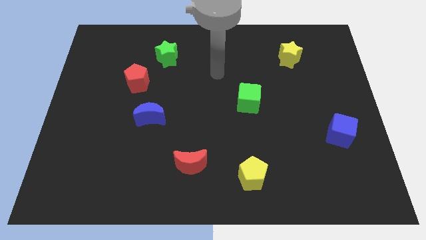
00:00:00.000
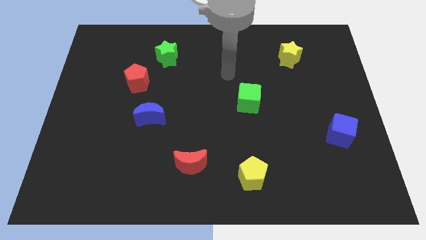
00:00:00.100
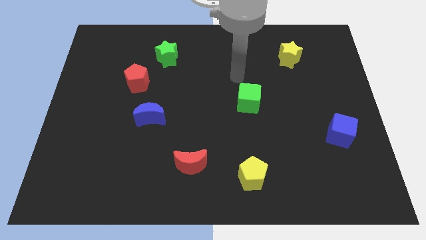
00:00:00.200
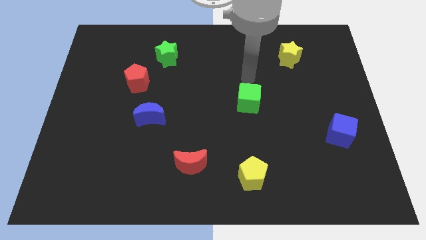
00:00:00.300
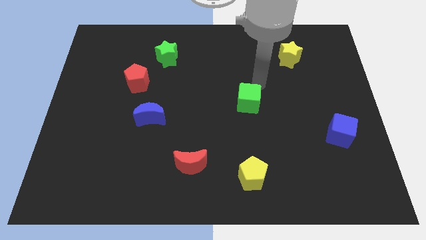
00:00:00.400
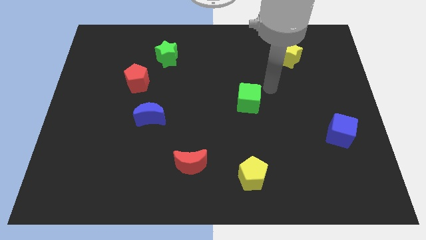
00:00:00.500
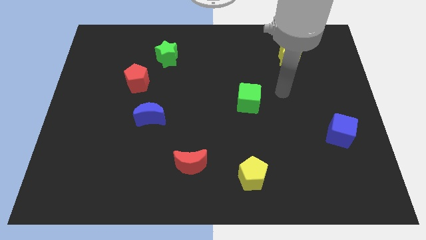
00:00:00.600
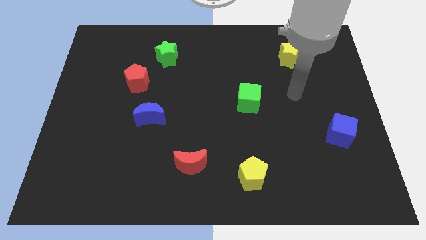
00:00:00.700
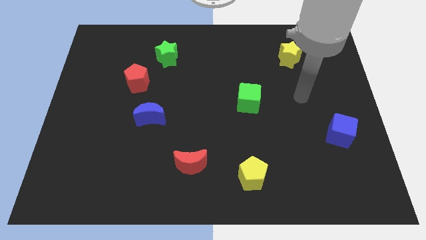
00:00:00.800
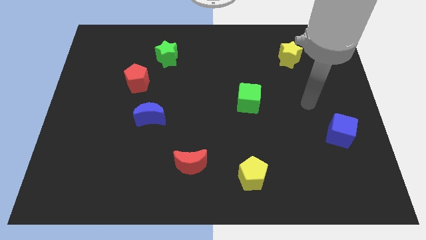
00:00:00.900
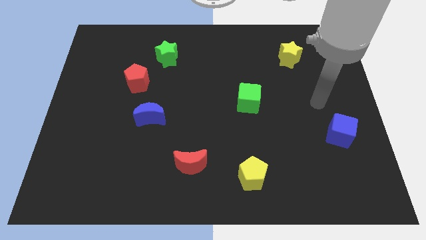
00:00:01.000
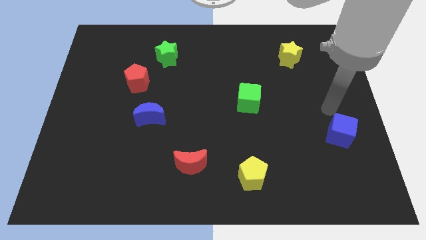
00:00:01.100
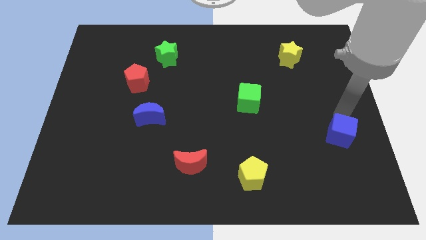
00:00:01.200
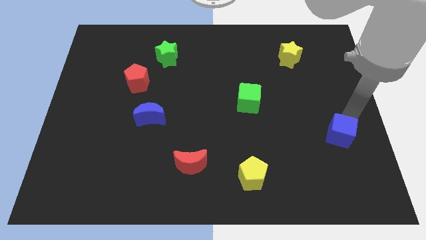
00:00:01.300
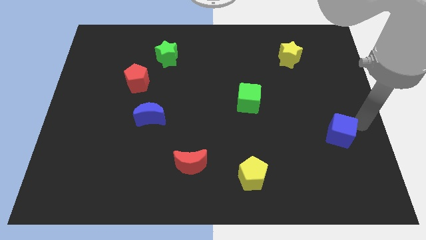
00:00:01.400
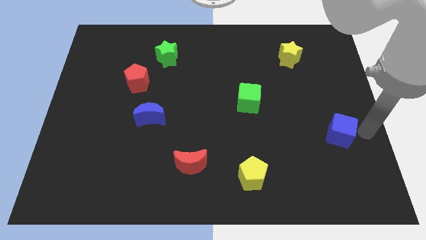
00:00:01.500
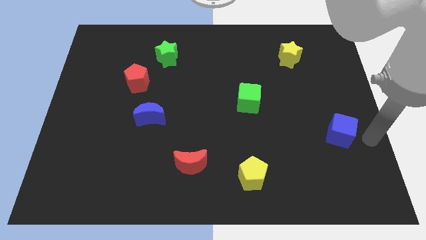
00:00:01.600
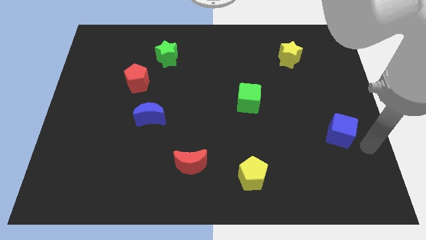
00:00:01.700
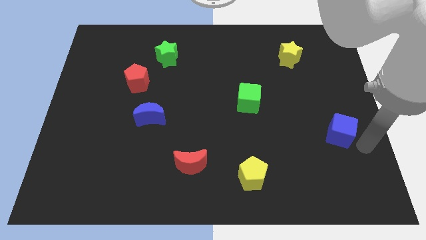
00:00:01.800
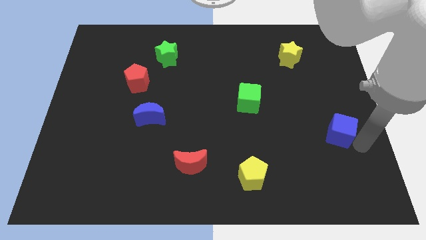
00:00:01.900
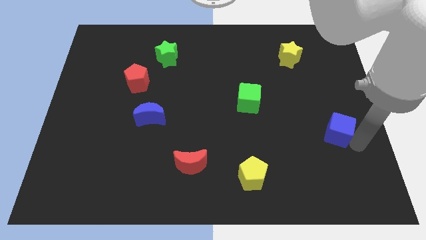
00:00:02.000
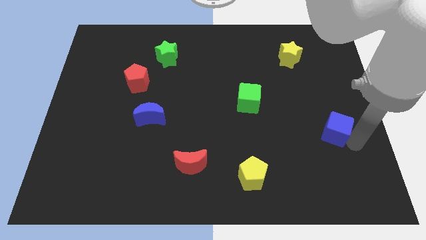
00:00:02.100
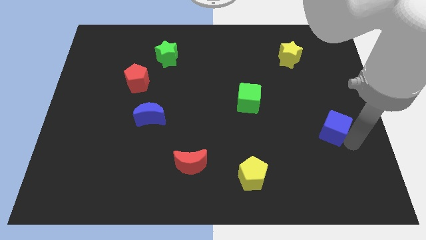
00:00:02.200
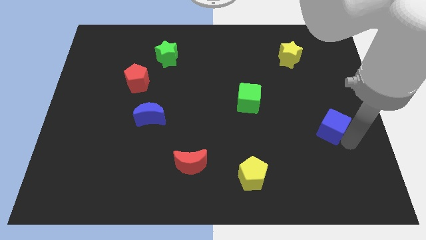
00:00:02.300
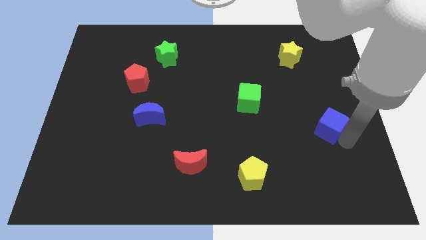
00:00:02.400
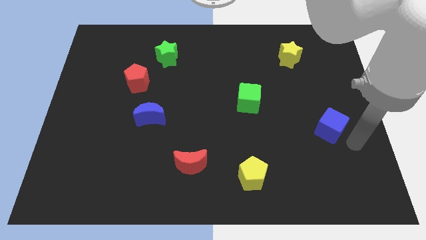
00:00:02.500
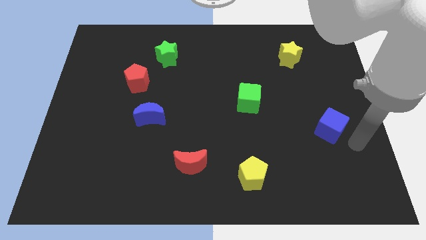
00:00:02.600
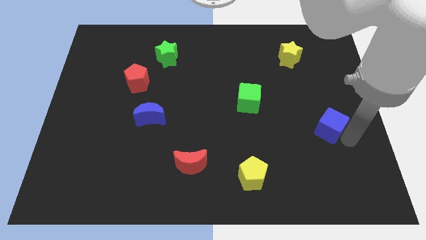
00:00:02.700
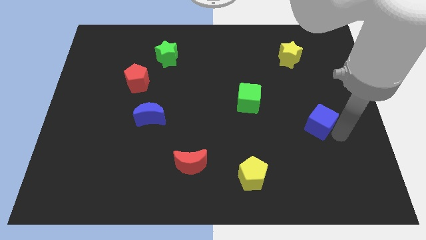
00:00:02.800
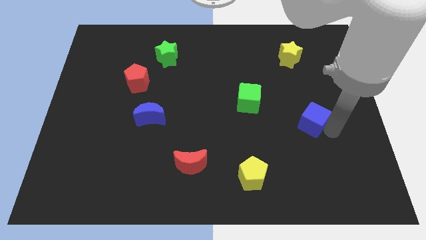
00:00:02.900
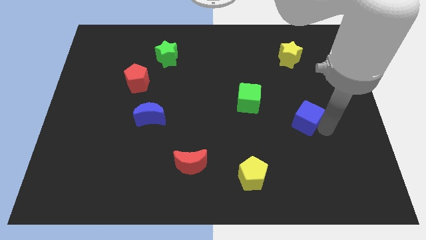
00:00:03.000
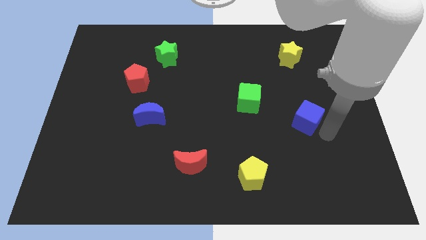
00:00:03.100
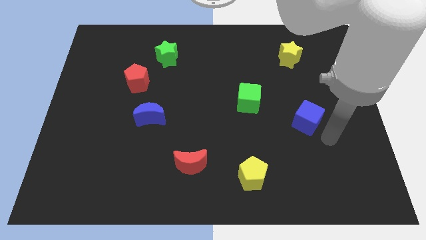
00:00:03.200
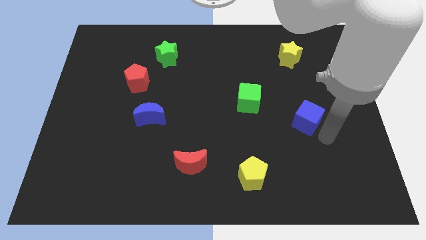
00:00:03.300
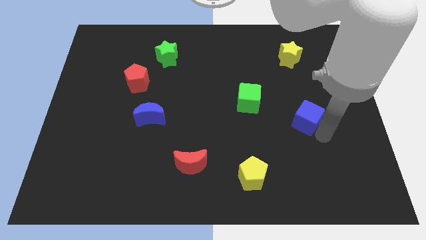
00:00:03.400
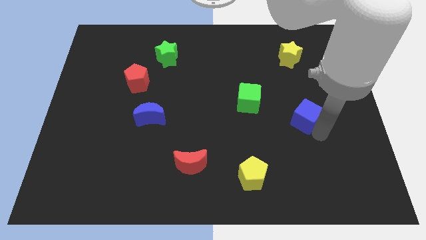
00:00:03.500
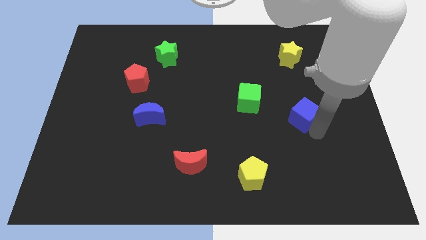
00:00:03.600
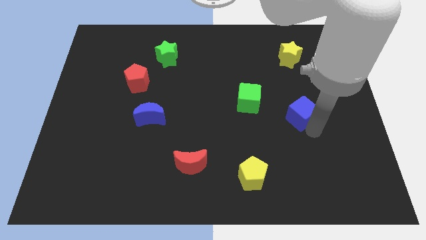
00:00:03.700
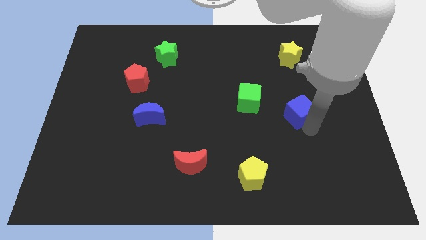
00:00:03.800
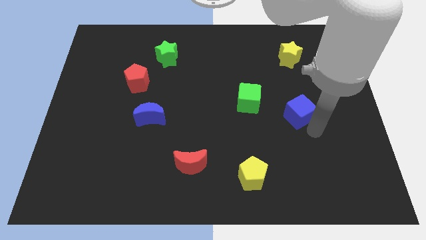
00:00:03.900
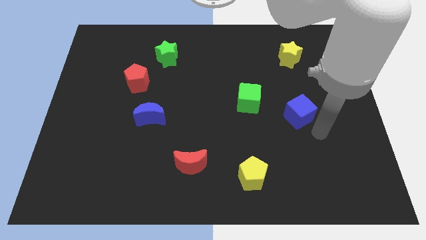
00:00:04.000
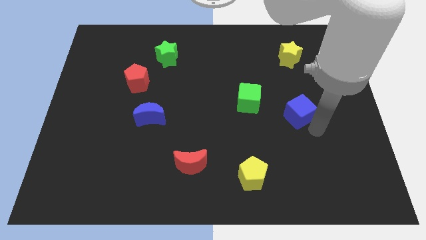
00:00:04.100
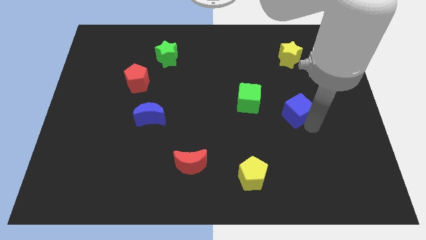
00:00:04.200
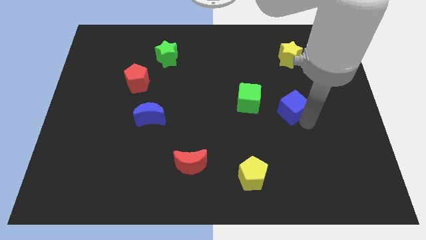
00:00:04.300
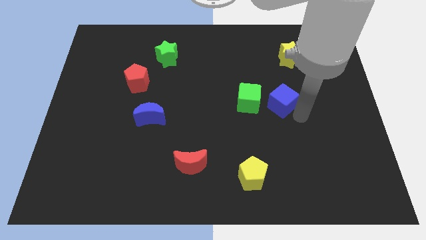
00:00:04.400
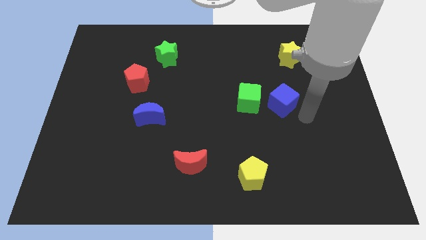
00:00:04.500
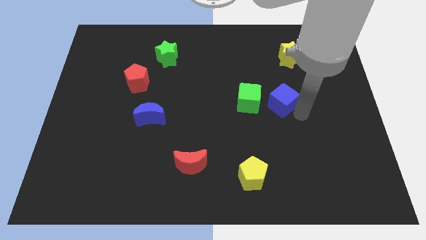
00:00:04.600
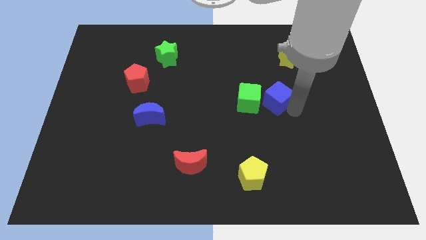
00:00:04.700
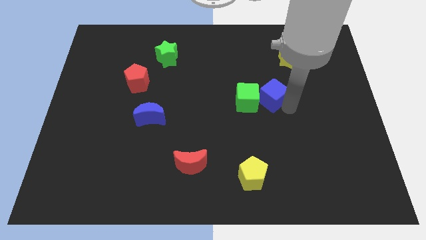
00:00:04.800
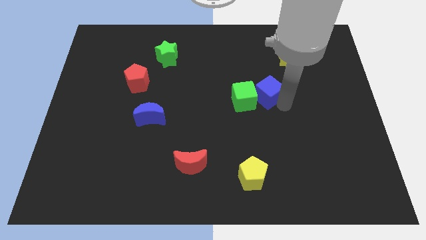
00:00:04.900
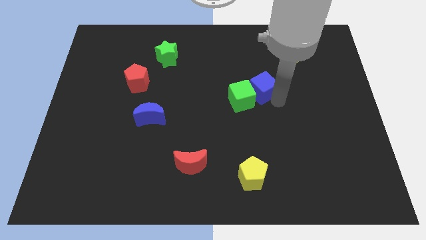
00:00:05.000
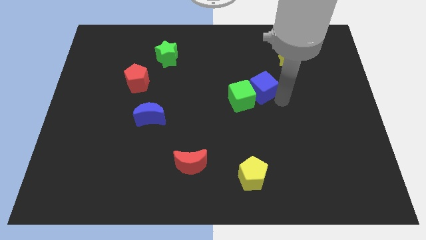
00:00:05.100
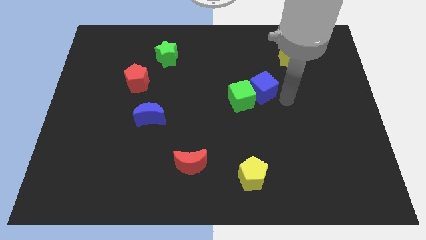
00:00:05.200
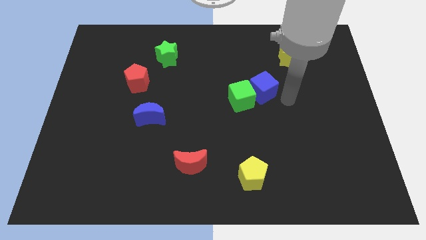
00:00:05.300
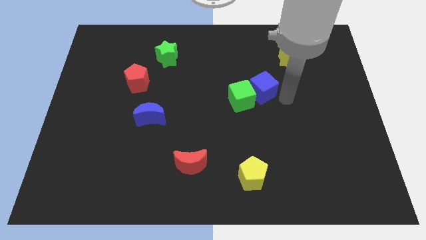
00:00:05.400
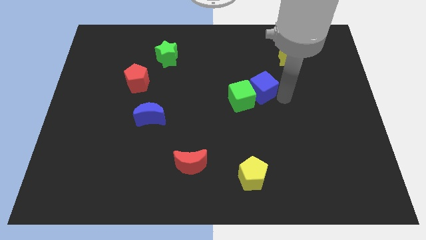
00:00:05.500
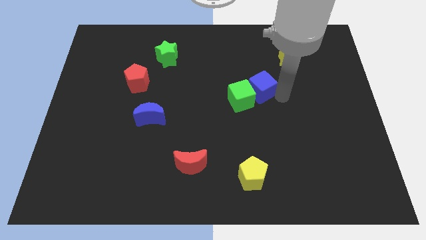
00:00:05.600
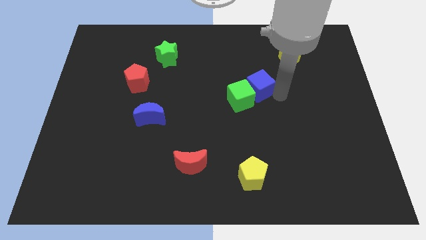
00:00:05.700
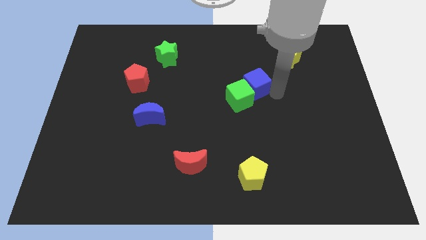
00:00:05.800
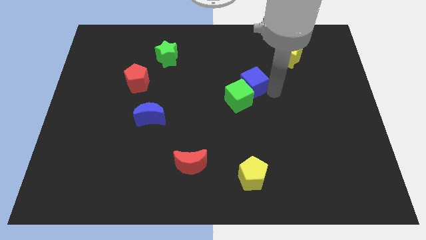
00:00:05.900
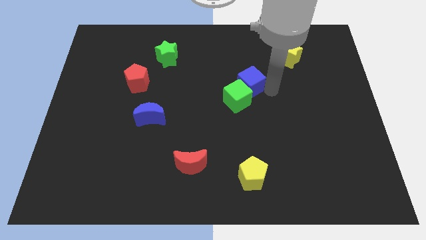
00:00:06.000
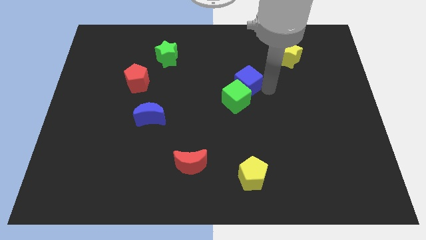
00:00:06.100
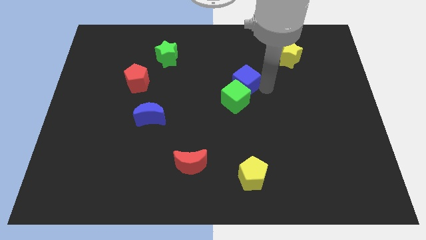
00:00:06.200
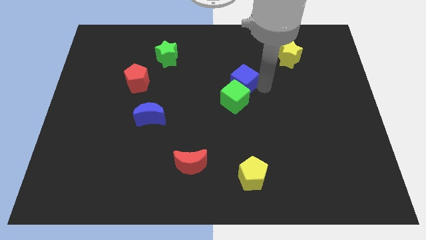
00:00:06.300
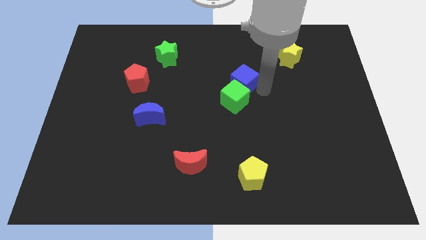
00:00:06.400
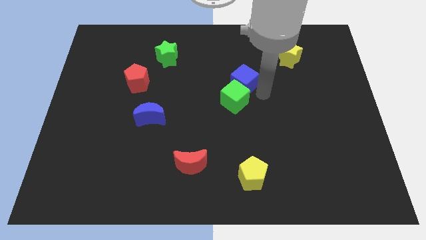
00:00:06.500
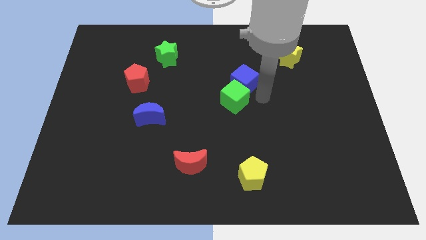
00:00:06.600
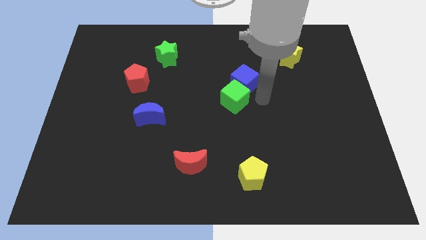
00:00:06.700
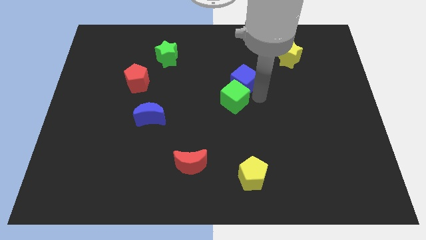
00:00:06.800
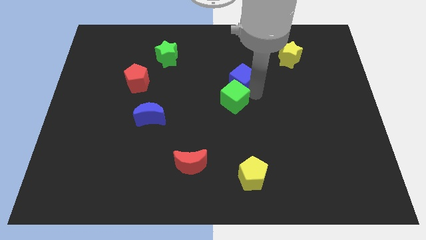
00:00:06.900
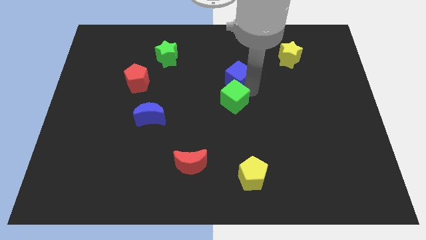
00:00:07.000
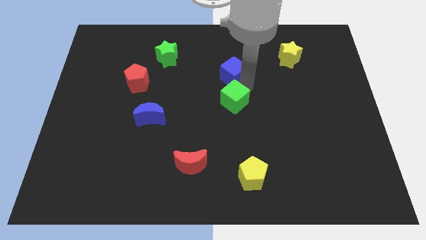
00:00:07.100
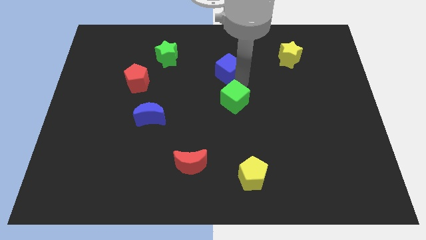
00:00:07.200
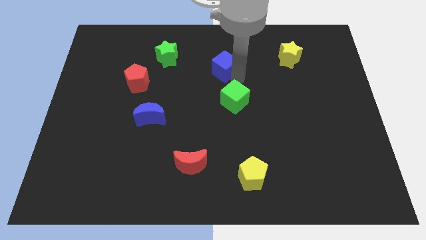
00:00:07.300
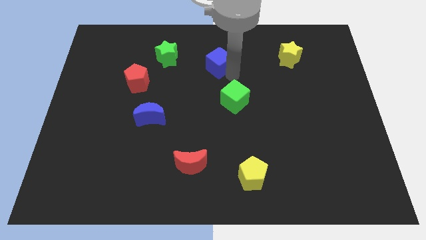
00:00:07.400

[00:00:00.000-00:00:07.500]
slide the blue cube to the right of the green star

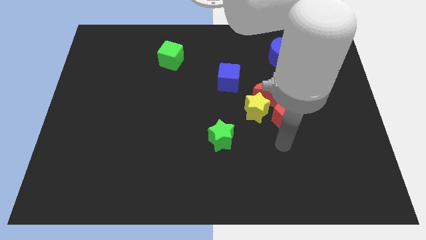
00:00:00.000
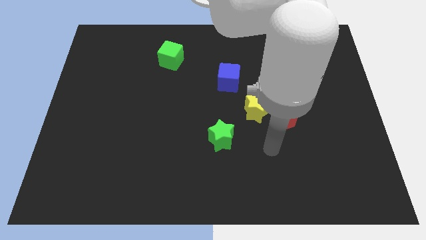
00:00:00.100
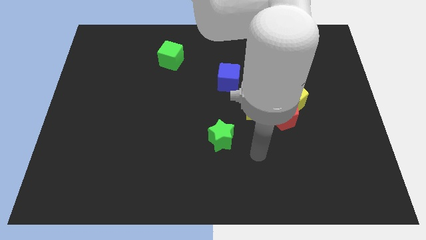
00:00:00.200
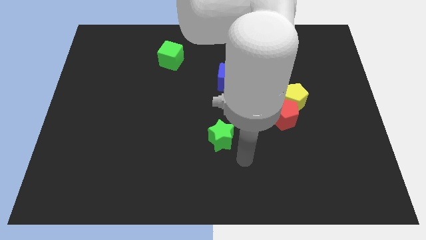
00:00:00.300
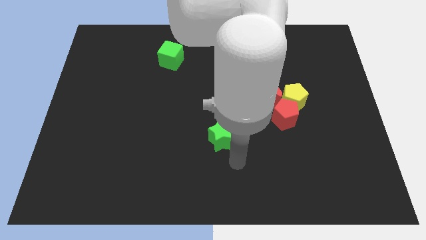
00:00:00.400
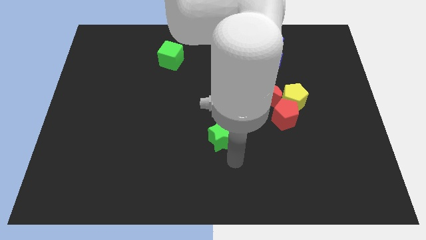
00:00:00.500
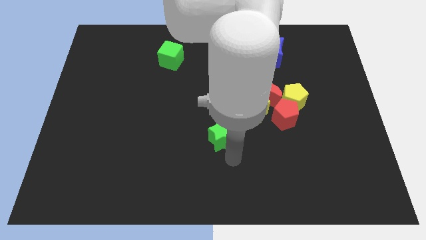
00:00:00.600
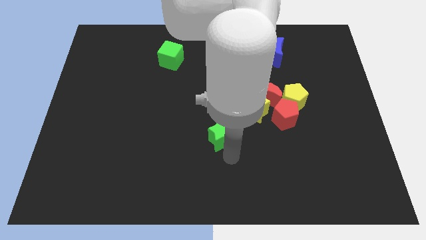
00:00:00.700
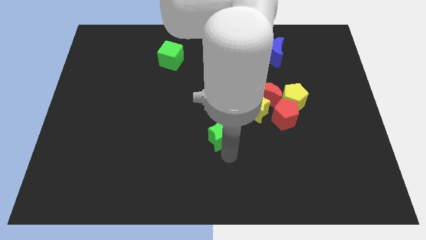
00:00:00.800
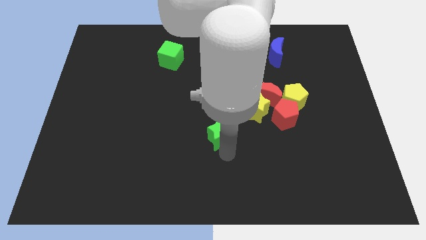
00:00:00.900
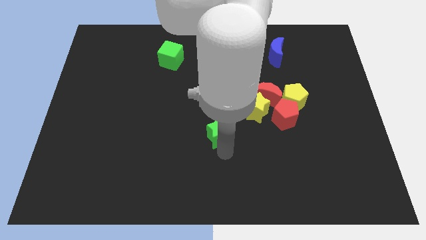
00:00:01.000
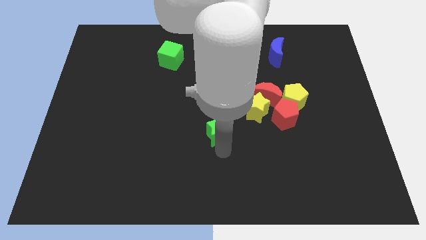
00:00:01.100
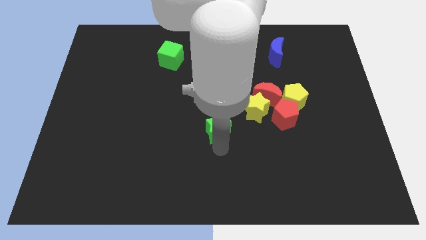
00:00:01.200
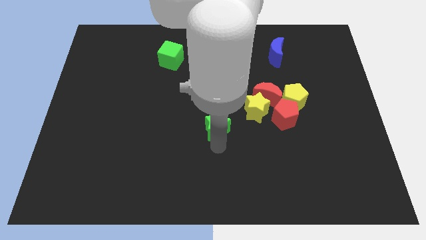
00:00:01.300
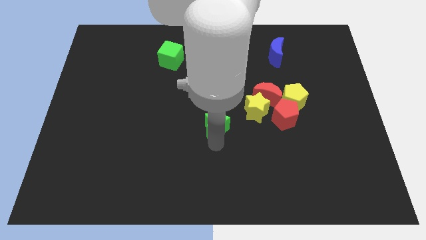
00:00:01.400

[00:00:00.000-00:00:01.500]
move the green star left of the yellow star
